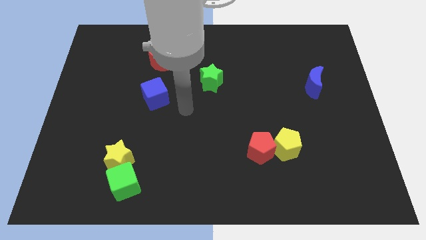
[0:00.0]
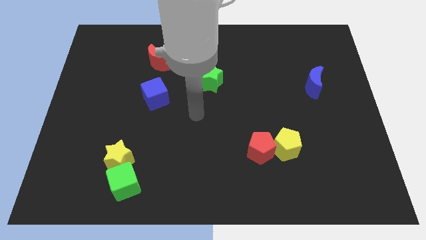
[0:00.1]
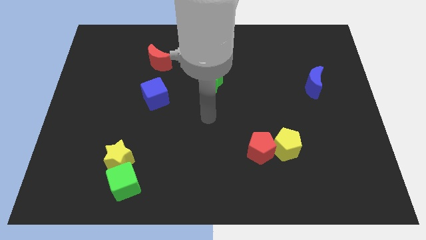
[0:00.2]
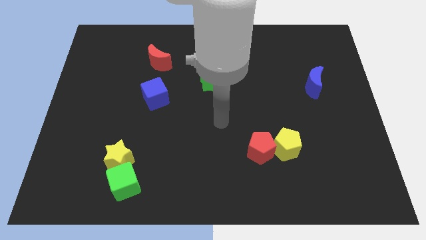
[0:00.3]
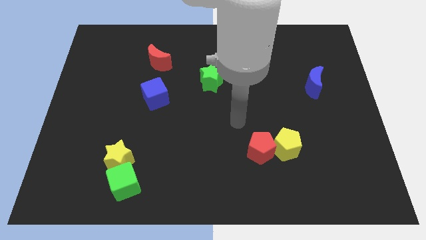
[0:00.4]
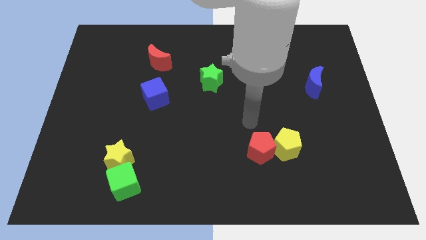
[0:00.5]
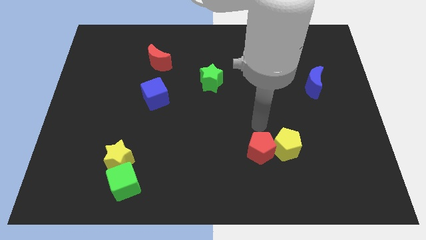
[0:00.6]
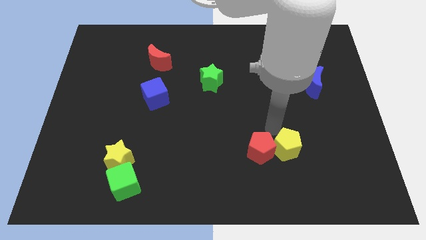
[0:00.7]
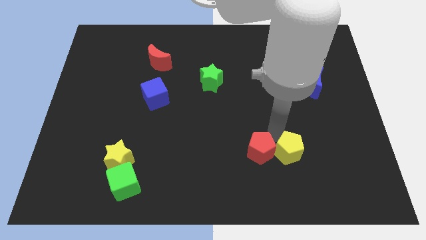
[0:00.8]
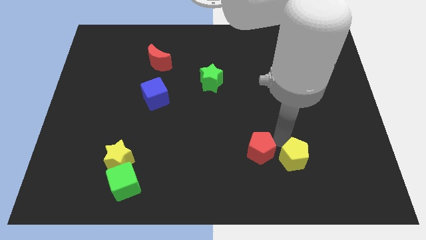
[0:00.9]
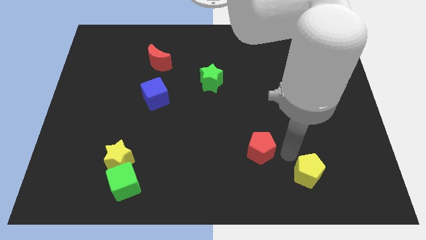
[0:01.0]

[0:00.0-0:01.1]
separate the red pentagon from the yellow pentagon

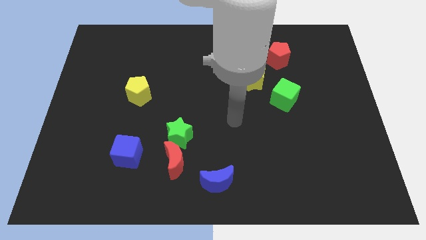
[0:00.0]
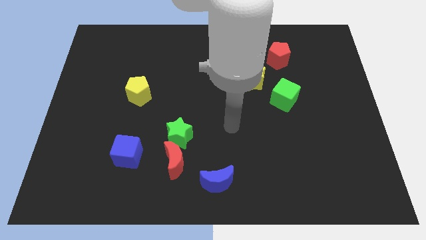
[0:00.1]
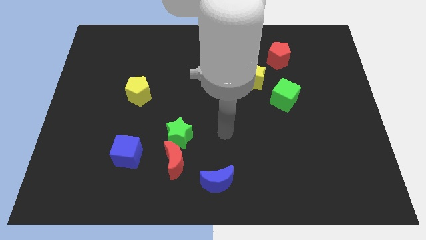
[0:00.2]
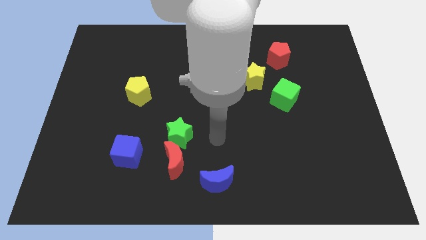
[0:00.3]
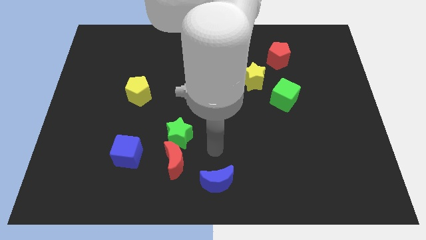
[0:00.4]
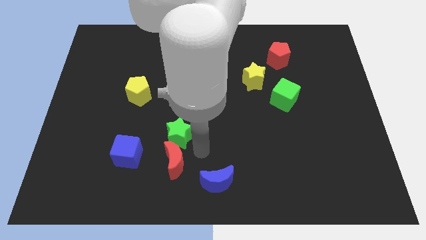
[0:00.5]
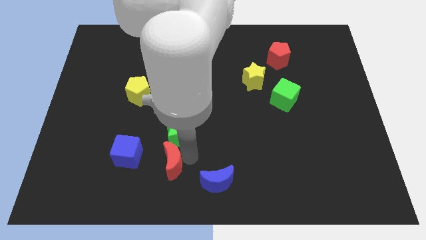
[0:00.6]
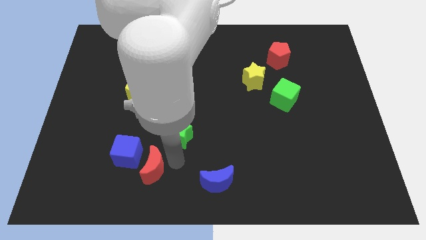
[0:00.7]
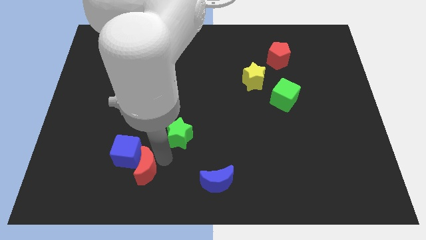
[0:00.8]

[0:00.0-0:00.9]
move the green star away from the red moon

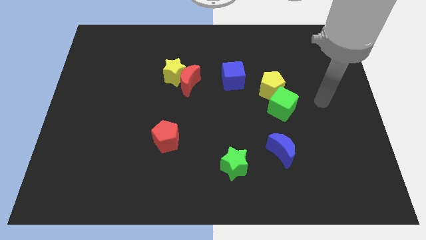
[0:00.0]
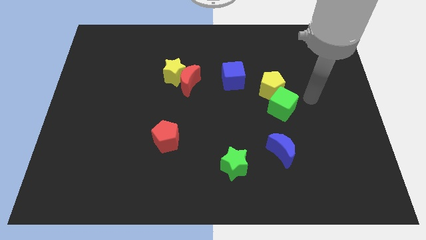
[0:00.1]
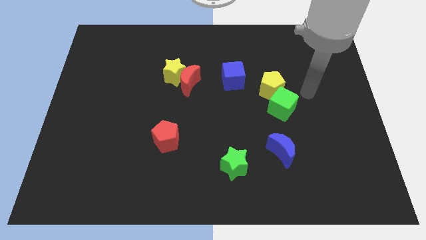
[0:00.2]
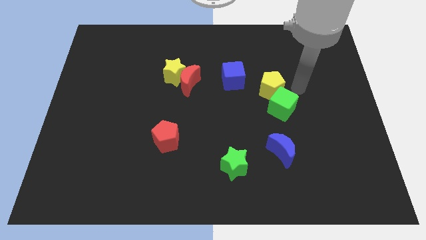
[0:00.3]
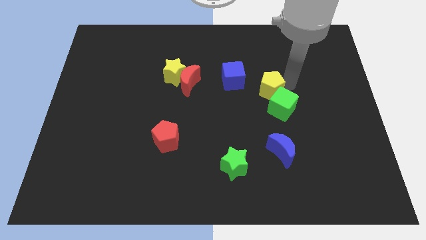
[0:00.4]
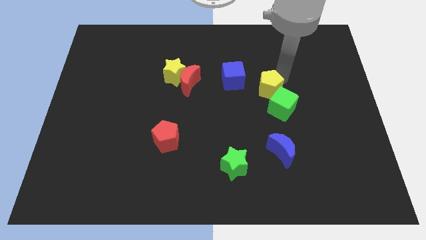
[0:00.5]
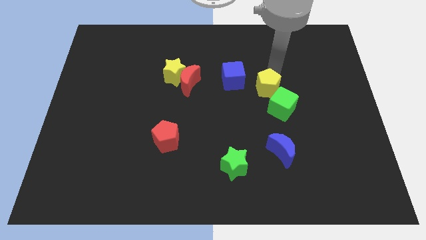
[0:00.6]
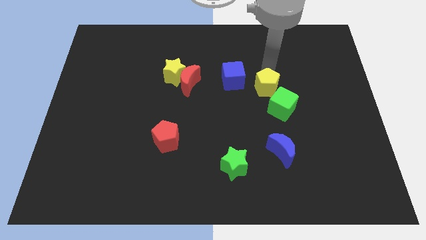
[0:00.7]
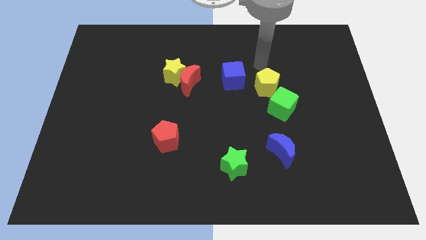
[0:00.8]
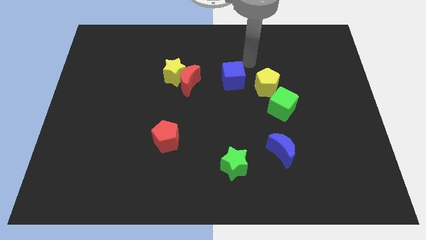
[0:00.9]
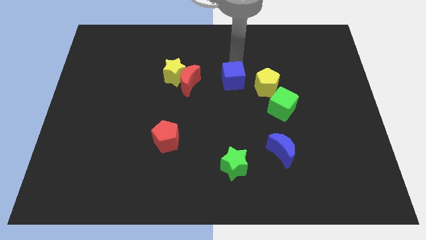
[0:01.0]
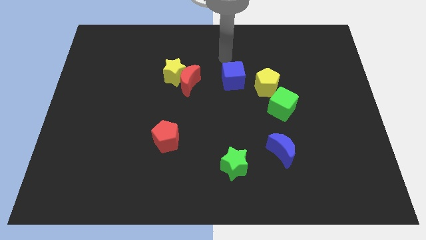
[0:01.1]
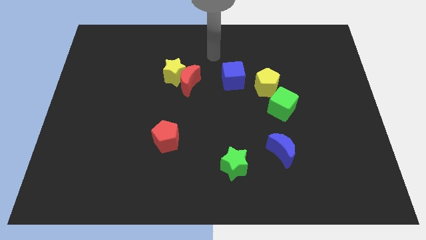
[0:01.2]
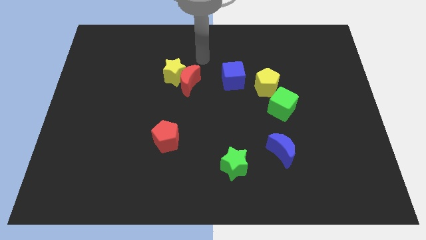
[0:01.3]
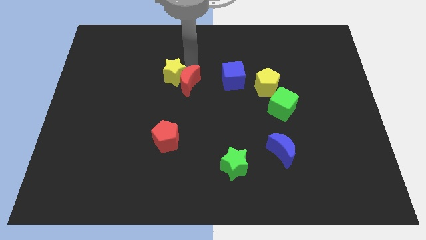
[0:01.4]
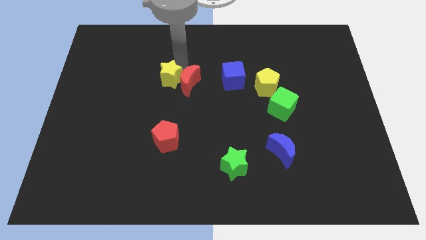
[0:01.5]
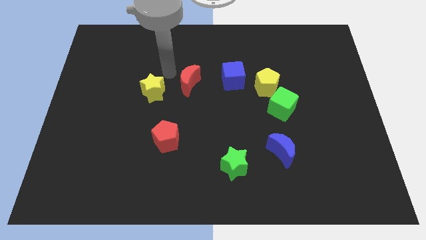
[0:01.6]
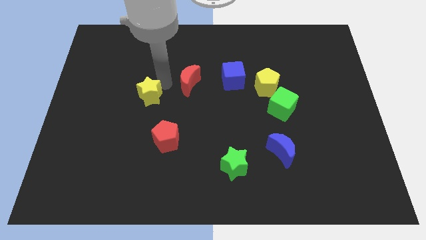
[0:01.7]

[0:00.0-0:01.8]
separate the red moon from the yellow star

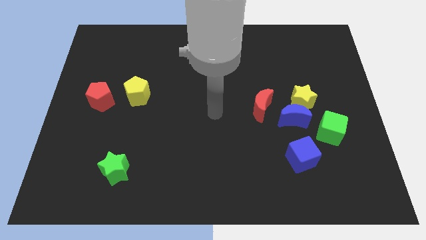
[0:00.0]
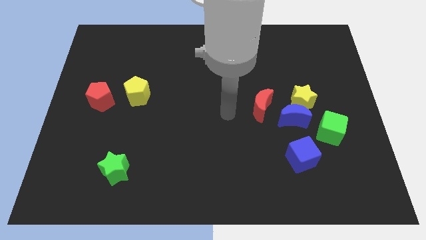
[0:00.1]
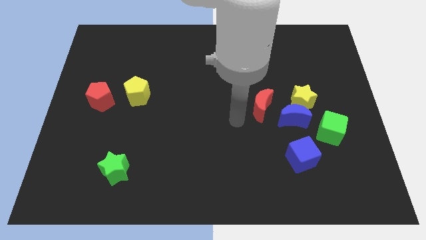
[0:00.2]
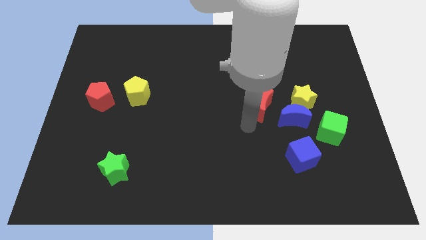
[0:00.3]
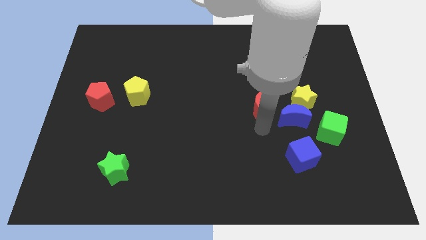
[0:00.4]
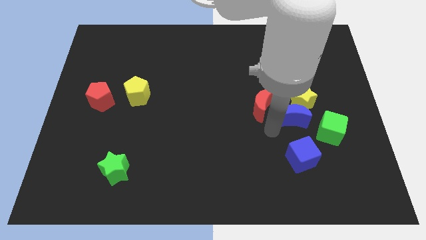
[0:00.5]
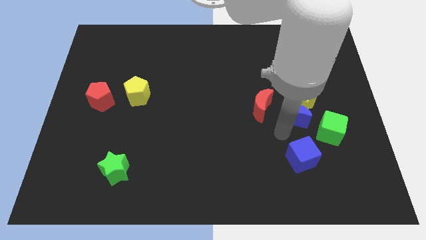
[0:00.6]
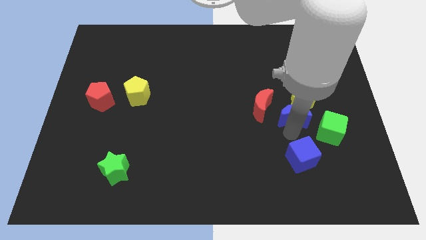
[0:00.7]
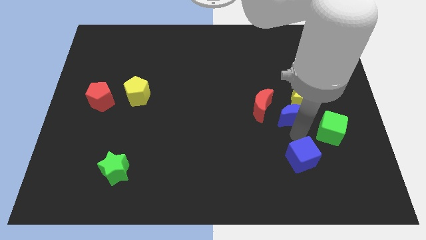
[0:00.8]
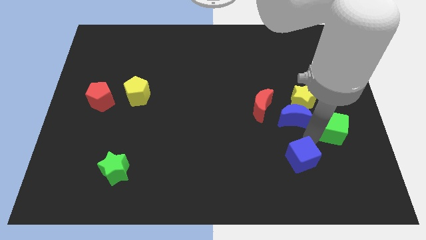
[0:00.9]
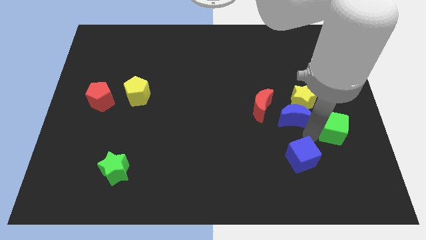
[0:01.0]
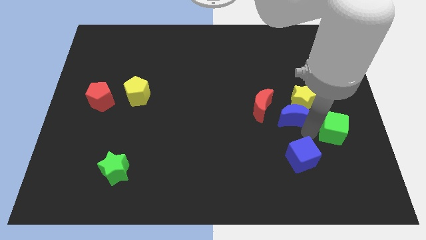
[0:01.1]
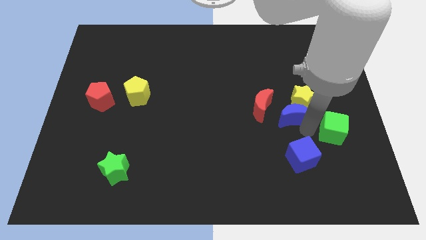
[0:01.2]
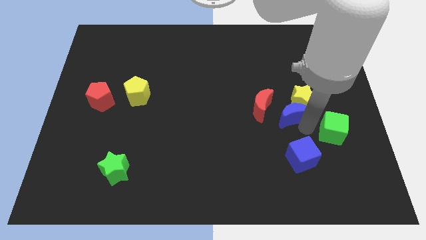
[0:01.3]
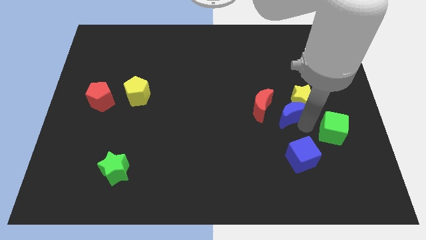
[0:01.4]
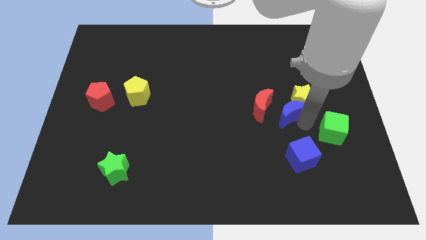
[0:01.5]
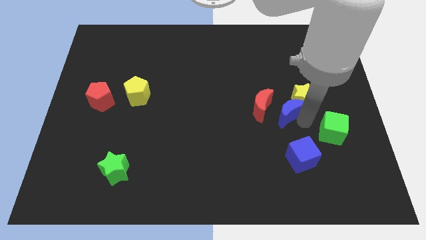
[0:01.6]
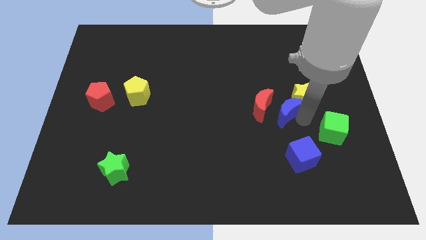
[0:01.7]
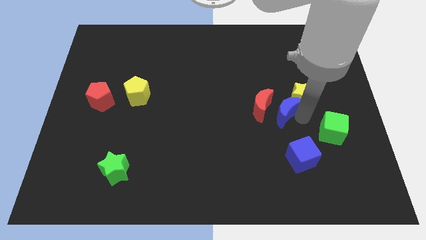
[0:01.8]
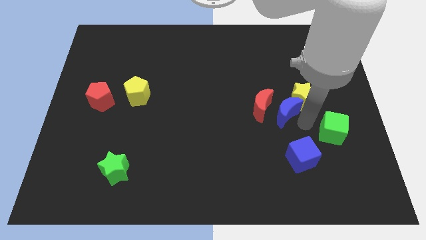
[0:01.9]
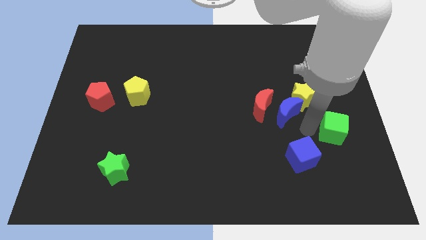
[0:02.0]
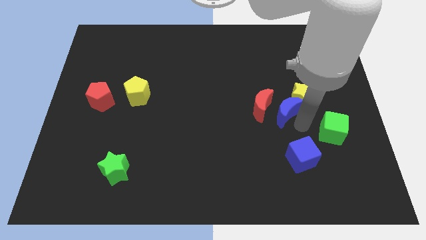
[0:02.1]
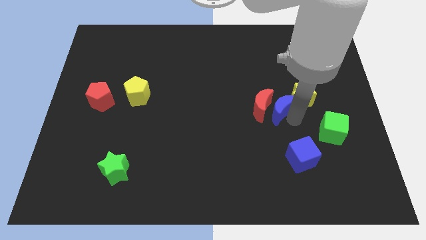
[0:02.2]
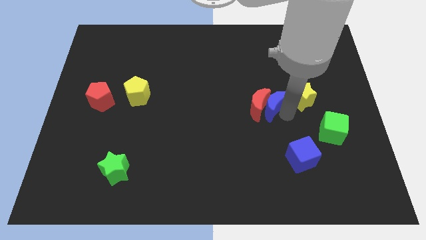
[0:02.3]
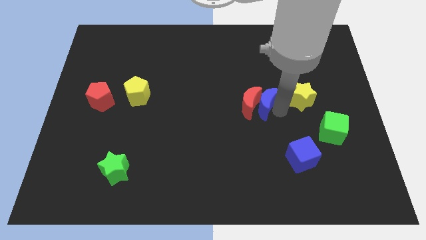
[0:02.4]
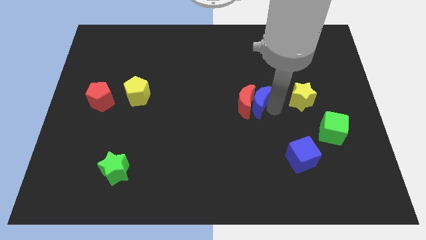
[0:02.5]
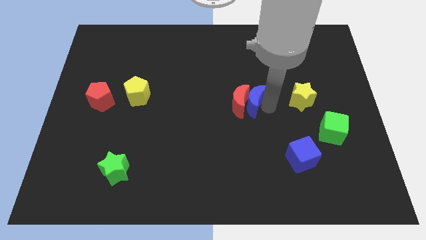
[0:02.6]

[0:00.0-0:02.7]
separate the blue moon from the clump

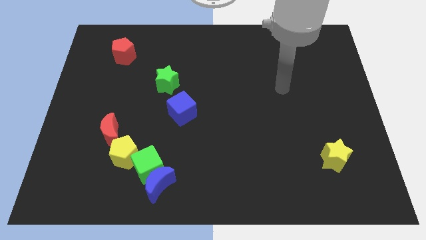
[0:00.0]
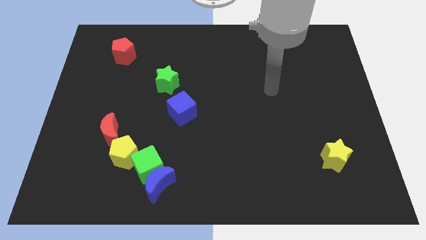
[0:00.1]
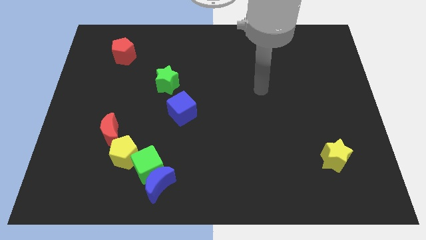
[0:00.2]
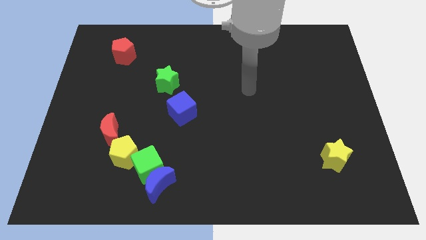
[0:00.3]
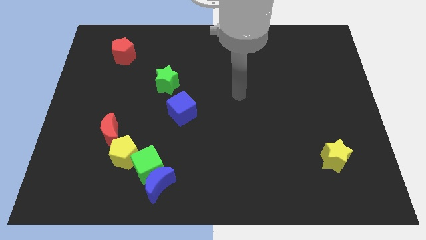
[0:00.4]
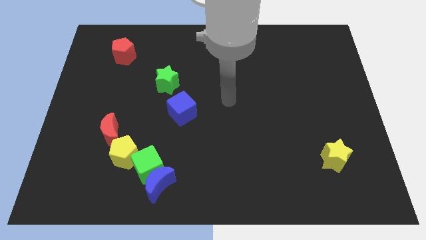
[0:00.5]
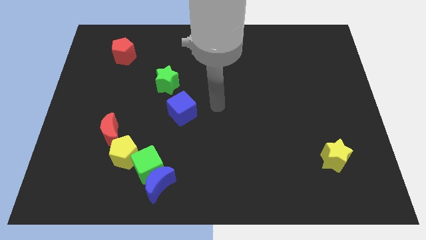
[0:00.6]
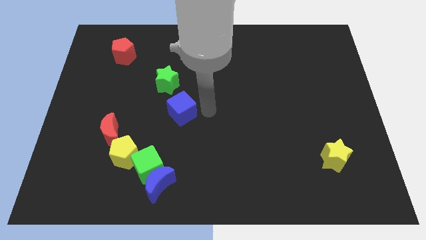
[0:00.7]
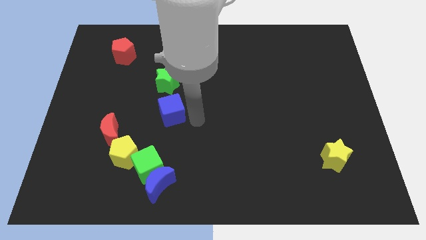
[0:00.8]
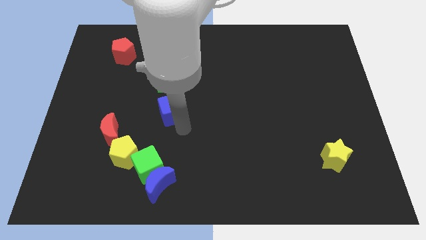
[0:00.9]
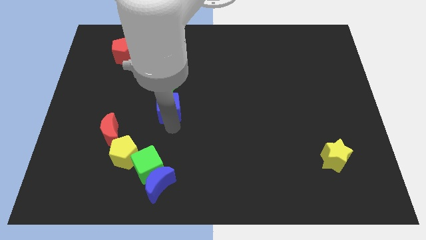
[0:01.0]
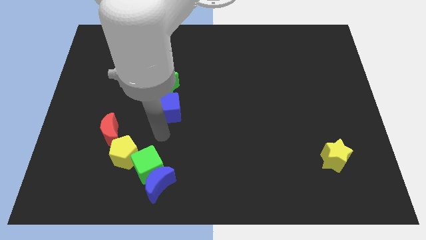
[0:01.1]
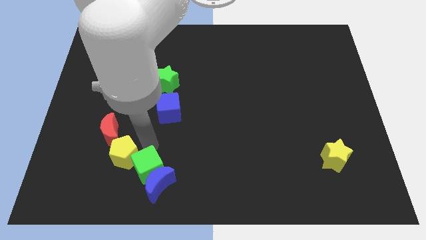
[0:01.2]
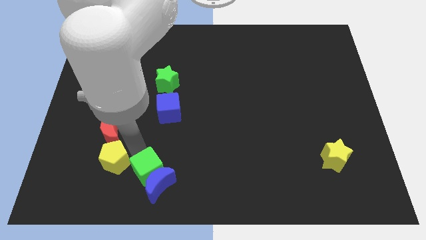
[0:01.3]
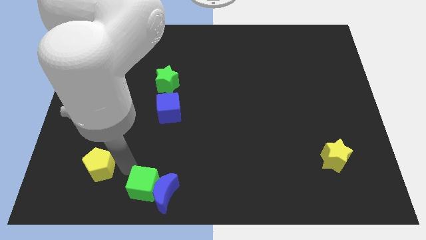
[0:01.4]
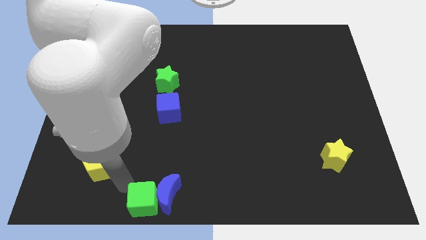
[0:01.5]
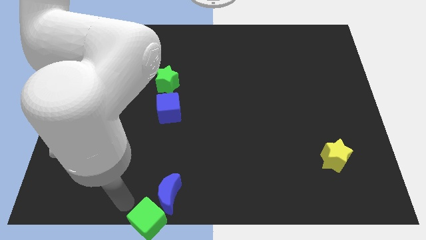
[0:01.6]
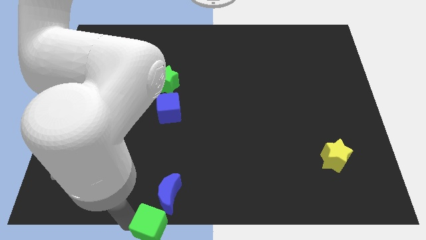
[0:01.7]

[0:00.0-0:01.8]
move the green cube away from the blue moon and yellow pentagon

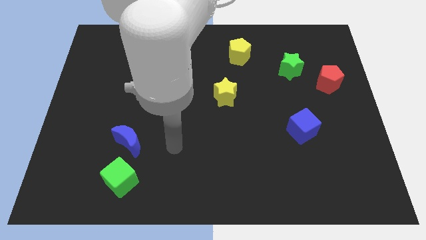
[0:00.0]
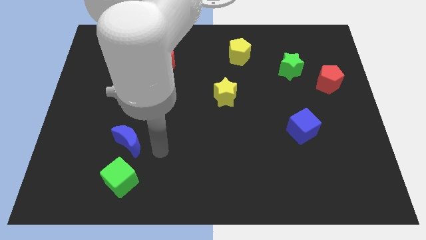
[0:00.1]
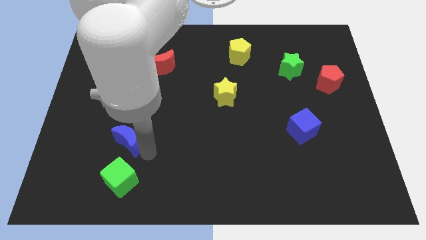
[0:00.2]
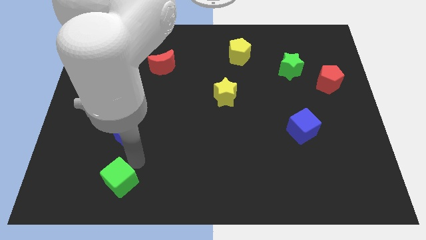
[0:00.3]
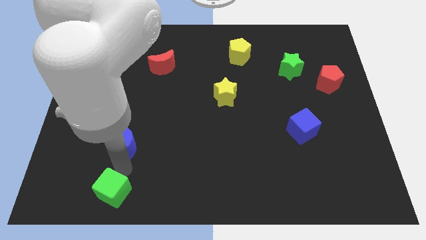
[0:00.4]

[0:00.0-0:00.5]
pull the blue moon apart from the green cube

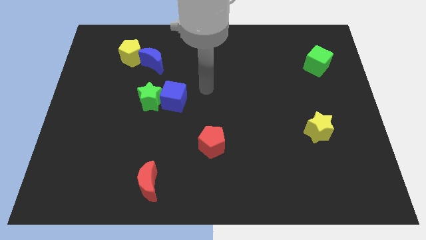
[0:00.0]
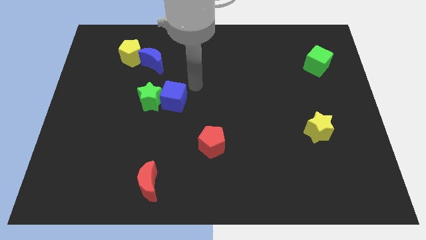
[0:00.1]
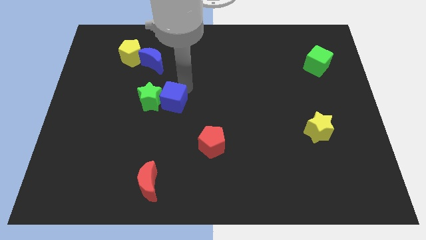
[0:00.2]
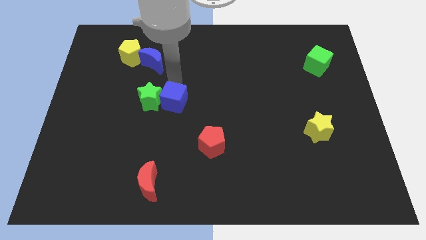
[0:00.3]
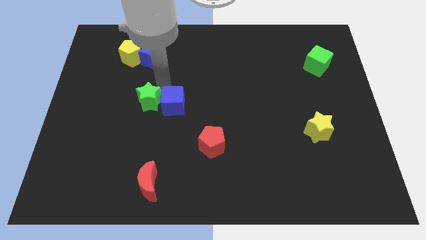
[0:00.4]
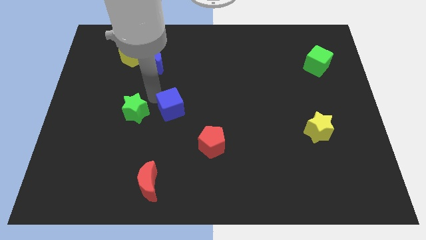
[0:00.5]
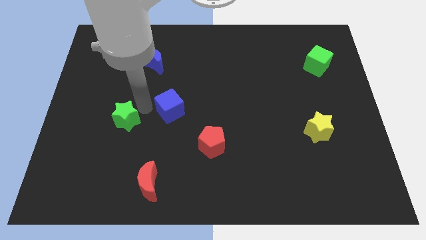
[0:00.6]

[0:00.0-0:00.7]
separate the blue cube from the green star
